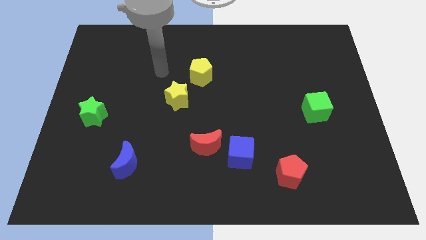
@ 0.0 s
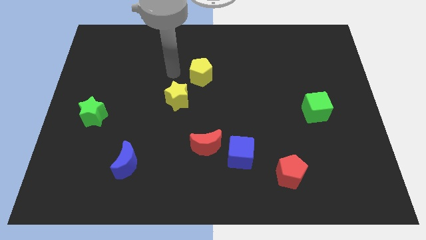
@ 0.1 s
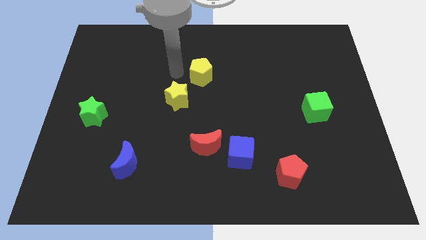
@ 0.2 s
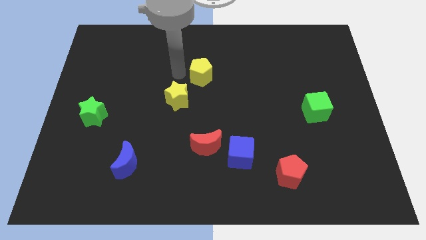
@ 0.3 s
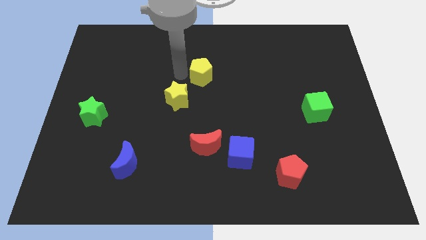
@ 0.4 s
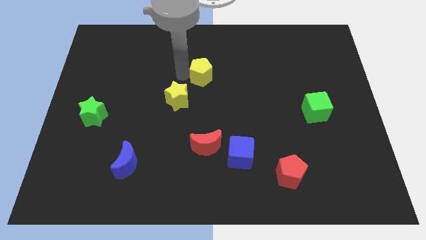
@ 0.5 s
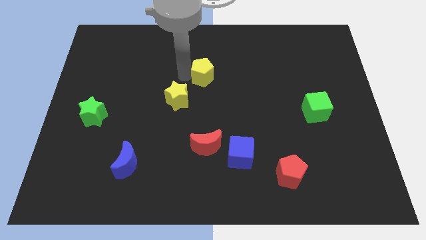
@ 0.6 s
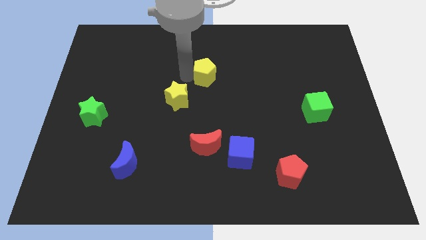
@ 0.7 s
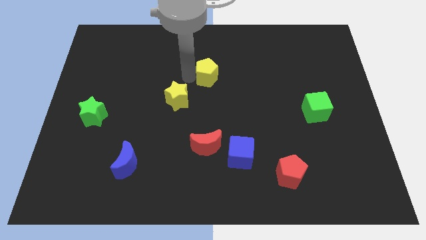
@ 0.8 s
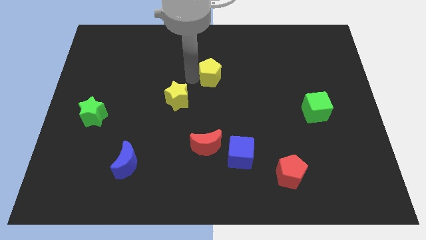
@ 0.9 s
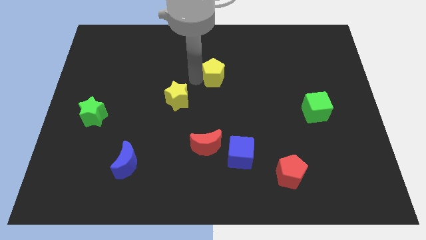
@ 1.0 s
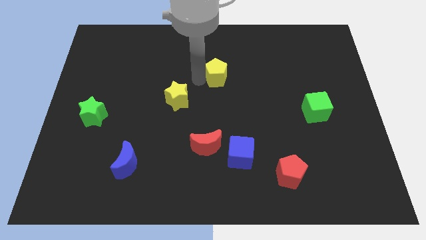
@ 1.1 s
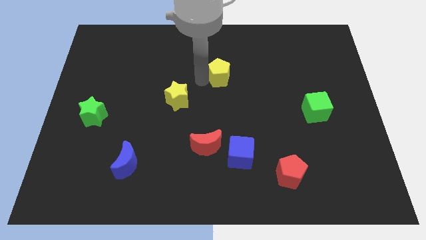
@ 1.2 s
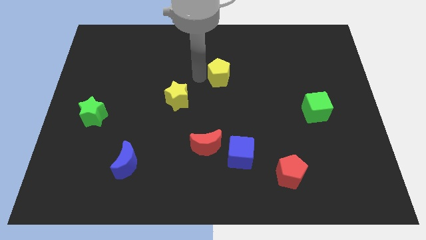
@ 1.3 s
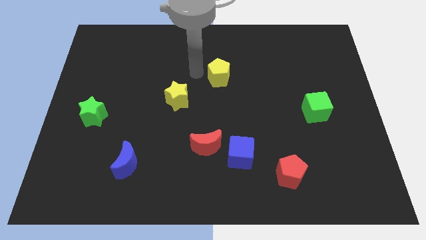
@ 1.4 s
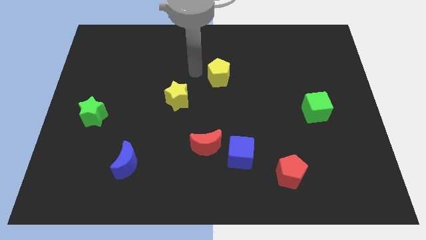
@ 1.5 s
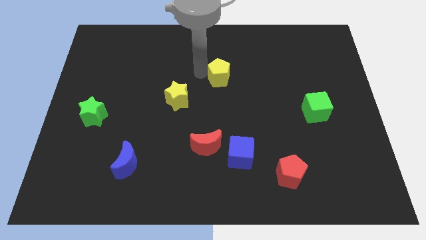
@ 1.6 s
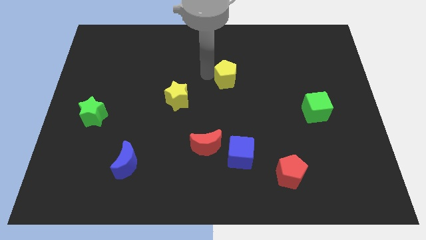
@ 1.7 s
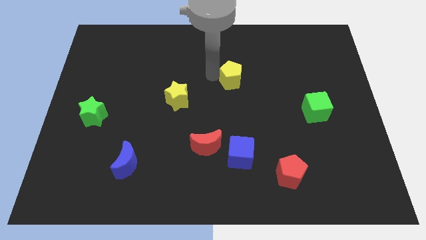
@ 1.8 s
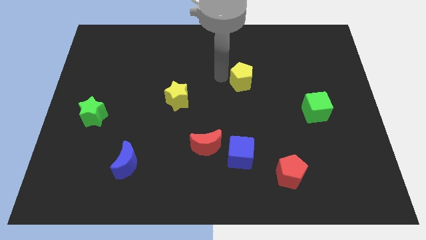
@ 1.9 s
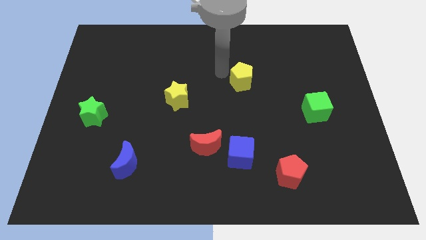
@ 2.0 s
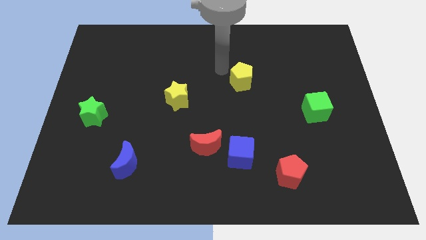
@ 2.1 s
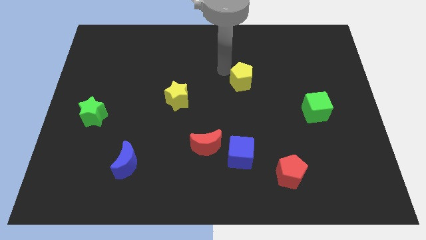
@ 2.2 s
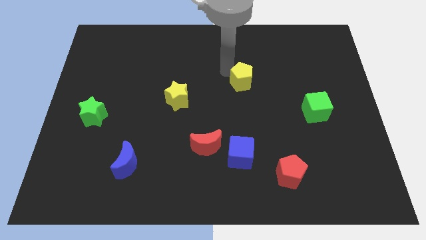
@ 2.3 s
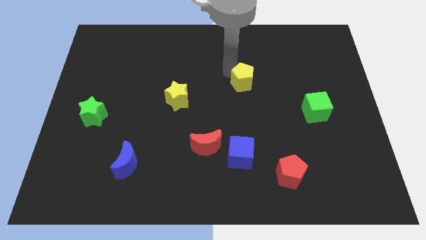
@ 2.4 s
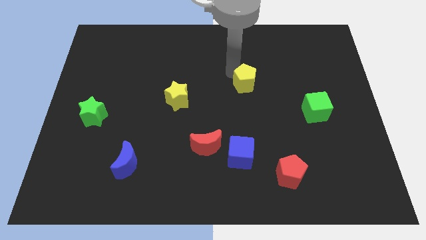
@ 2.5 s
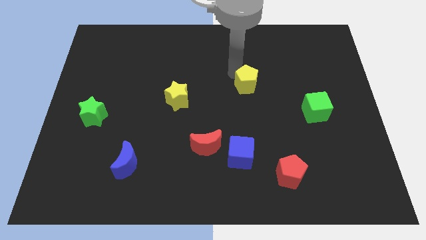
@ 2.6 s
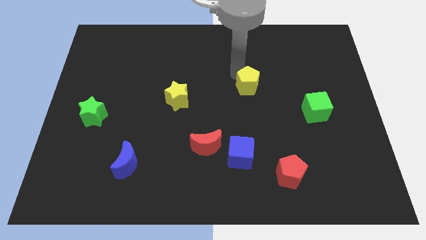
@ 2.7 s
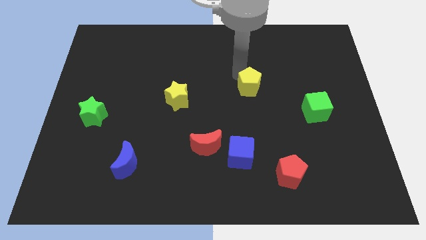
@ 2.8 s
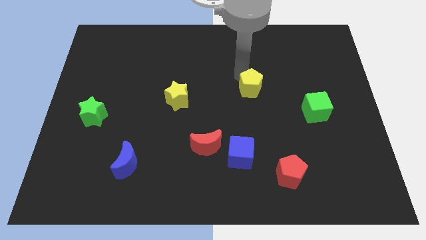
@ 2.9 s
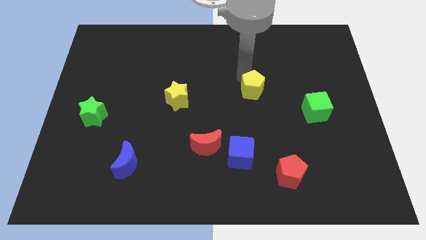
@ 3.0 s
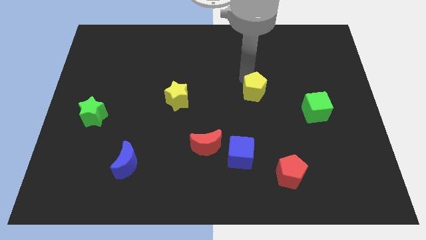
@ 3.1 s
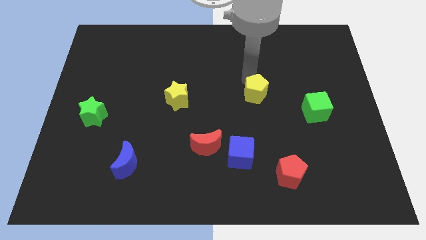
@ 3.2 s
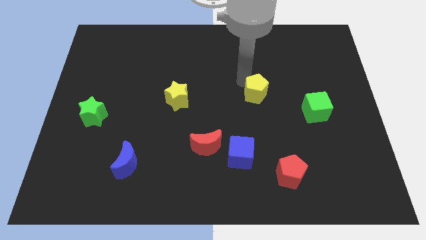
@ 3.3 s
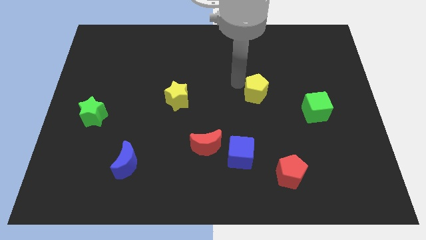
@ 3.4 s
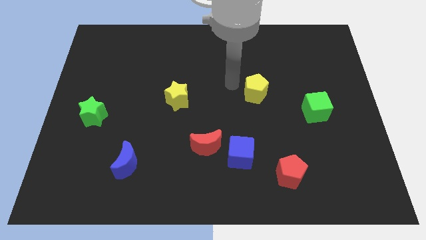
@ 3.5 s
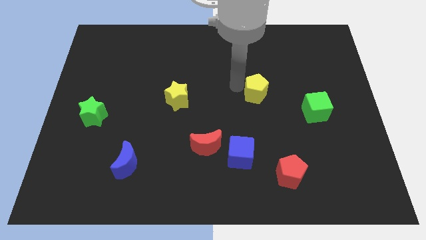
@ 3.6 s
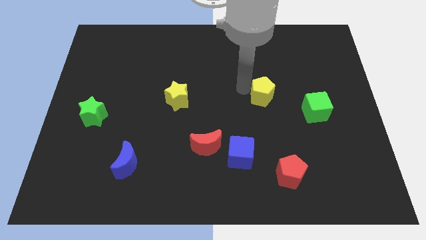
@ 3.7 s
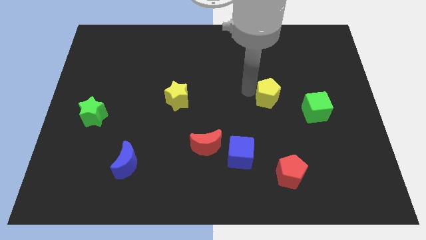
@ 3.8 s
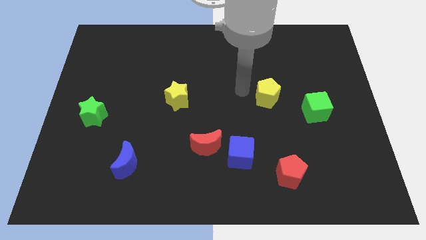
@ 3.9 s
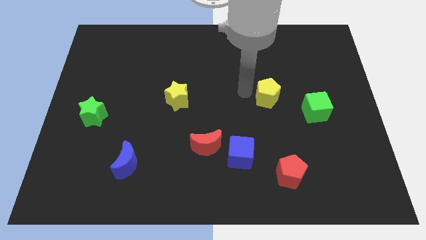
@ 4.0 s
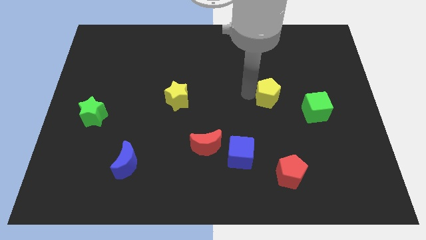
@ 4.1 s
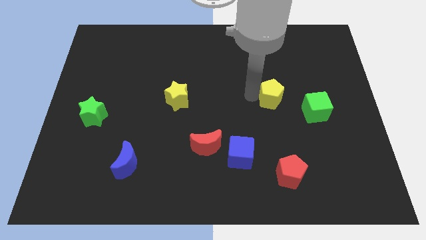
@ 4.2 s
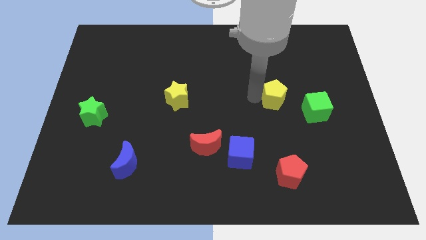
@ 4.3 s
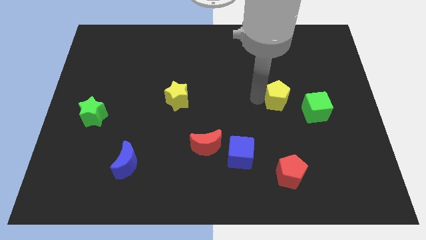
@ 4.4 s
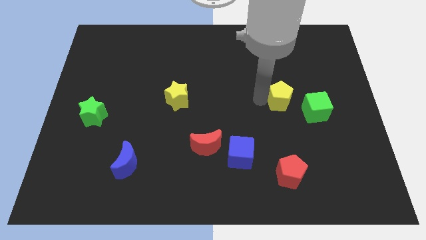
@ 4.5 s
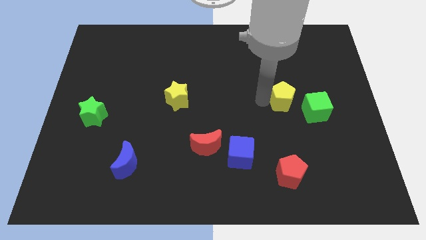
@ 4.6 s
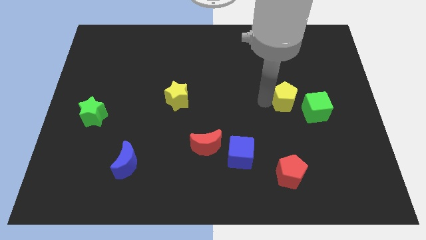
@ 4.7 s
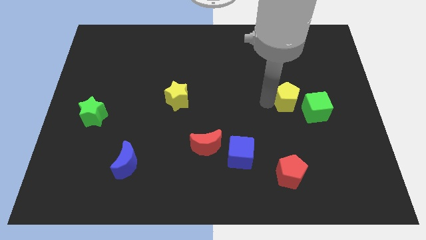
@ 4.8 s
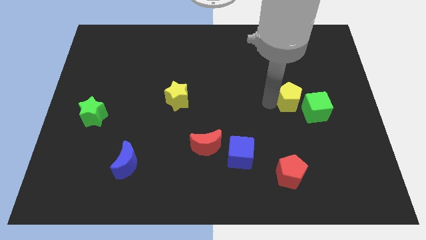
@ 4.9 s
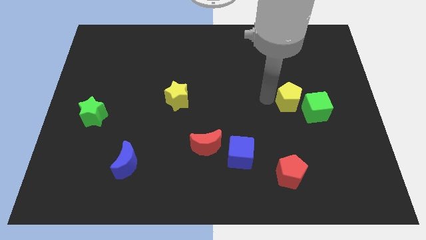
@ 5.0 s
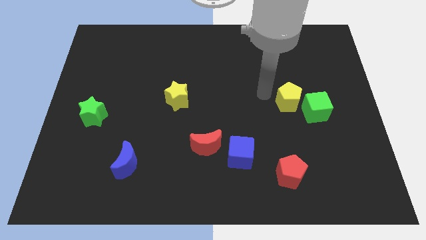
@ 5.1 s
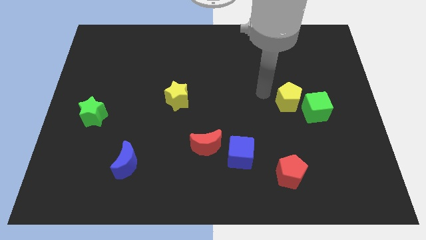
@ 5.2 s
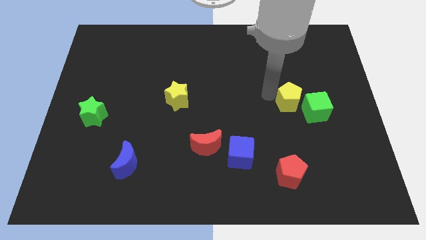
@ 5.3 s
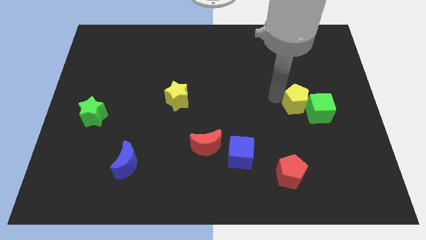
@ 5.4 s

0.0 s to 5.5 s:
put the yellow pentagon close to the green cube

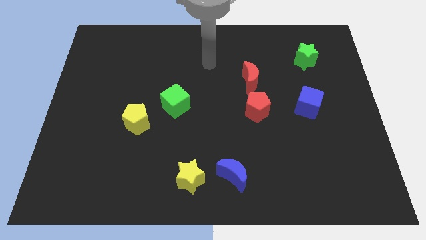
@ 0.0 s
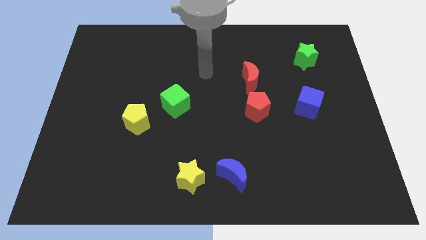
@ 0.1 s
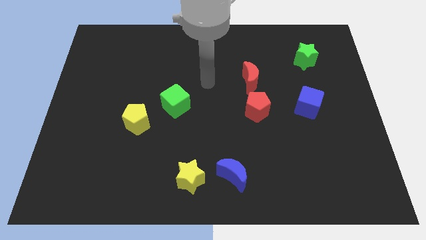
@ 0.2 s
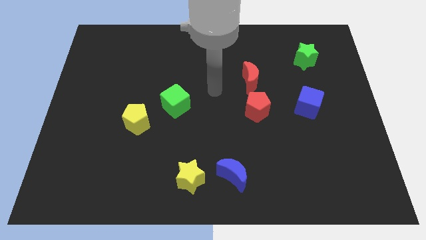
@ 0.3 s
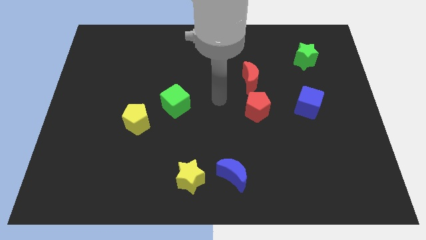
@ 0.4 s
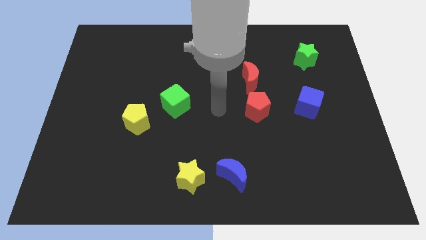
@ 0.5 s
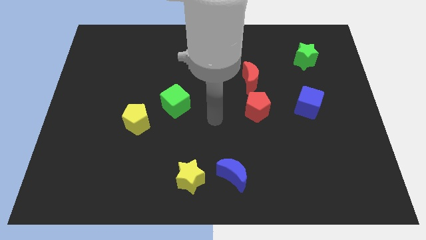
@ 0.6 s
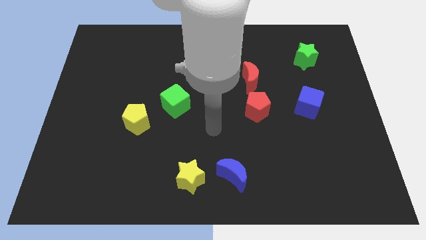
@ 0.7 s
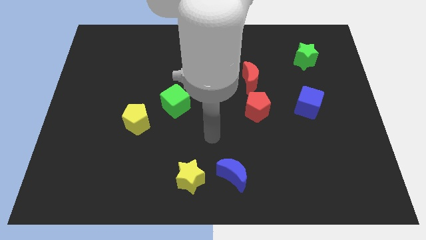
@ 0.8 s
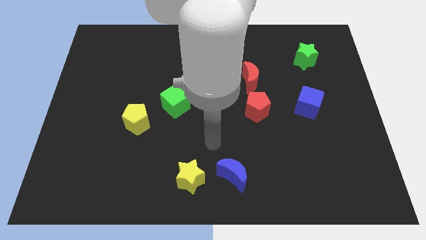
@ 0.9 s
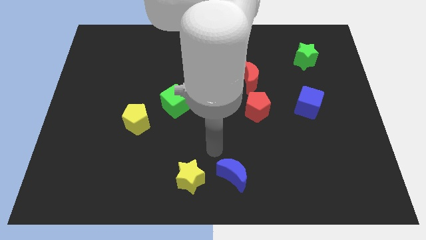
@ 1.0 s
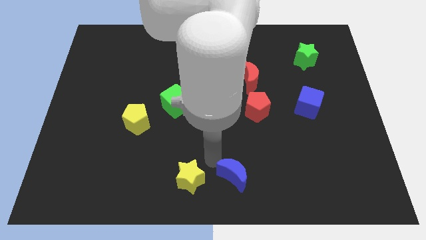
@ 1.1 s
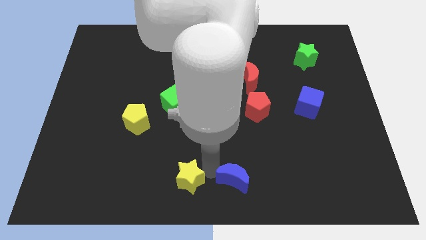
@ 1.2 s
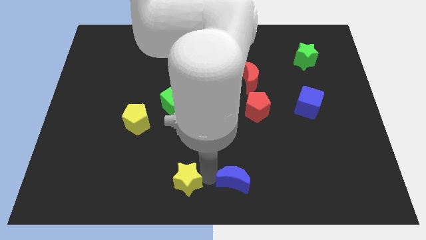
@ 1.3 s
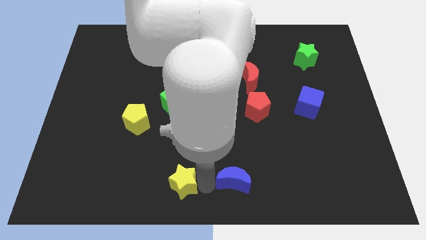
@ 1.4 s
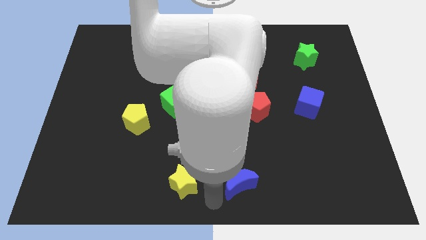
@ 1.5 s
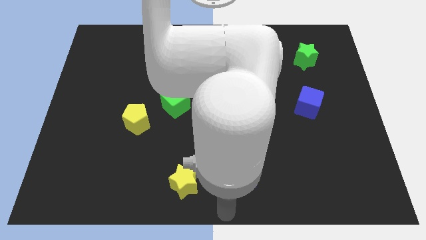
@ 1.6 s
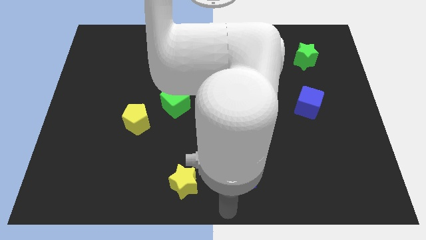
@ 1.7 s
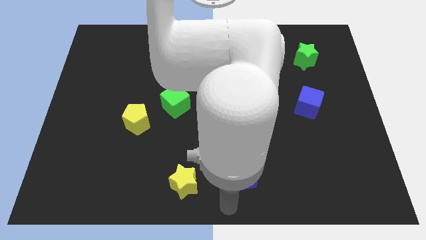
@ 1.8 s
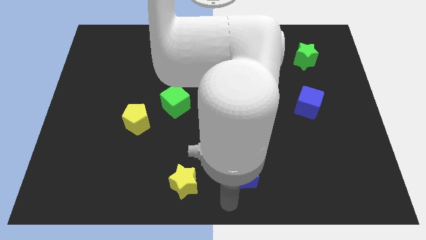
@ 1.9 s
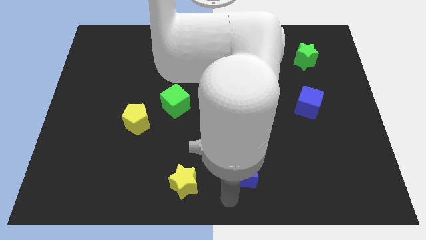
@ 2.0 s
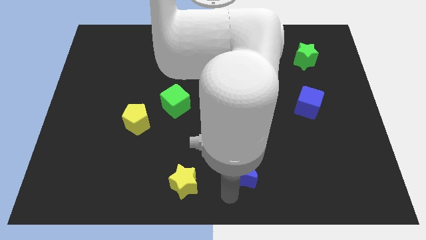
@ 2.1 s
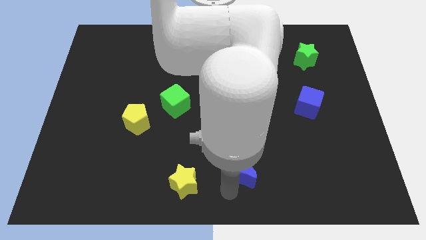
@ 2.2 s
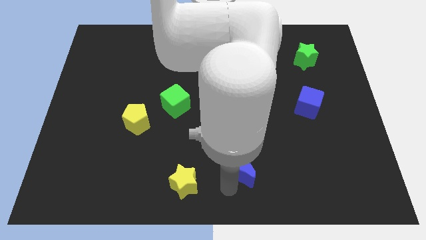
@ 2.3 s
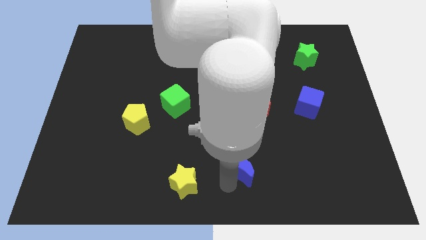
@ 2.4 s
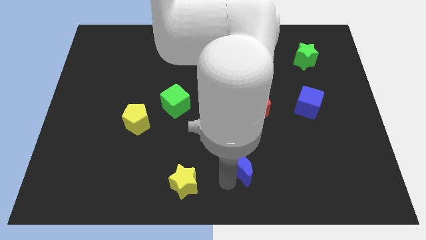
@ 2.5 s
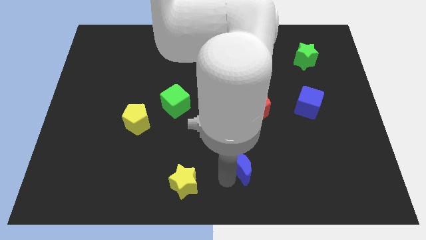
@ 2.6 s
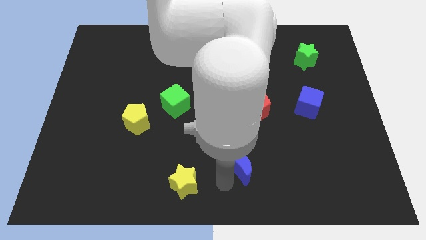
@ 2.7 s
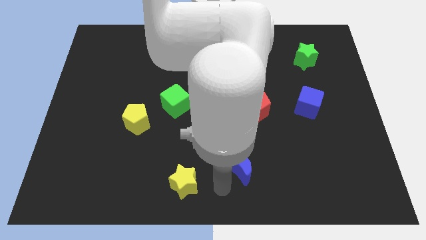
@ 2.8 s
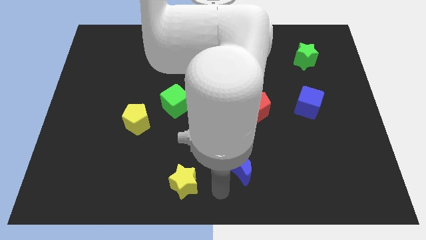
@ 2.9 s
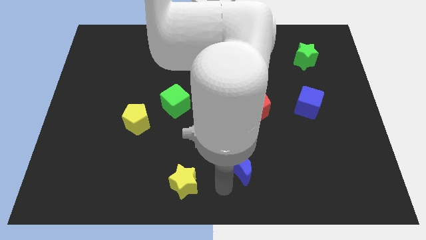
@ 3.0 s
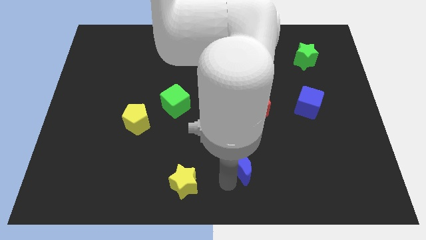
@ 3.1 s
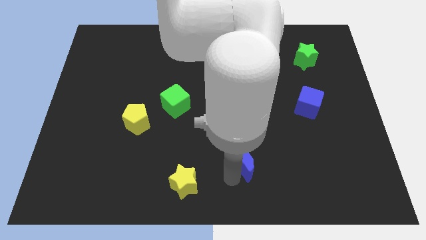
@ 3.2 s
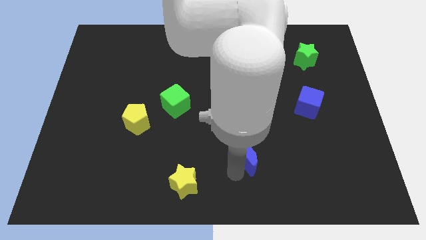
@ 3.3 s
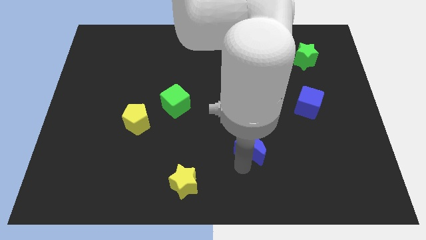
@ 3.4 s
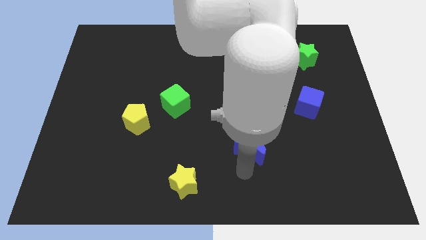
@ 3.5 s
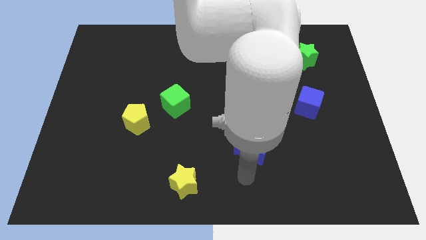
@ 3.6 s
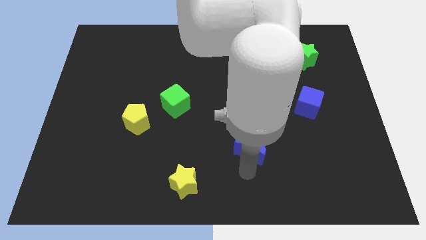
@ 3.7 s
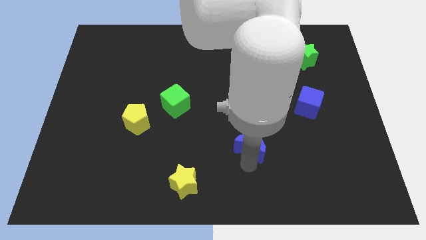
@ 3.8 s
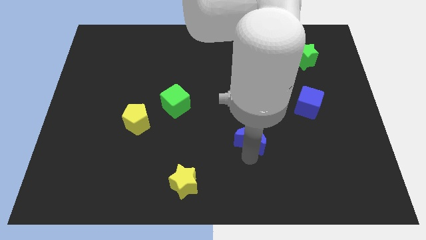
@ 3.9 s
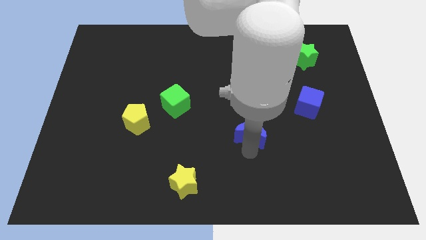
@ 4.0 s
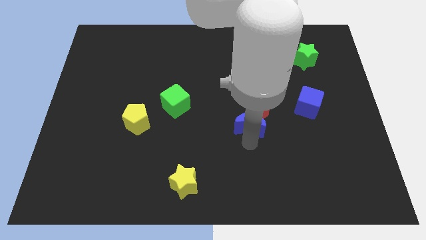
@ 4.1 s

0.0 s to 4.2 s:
move the blue moon towards the red pentagon
